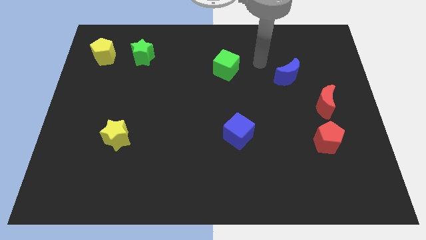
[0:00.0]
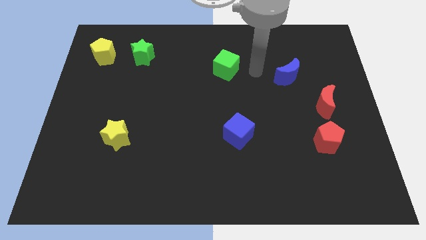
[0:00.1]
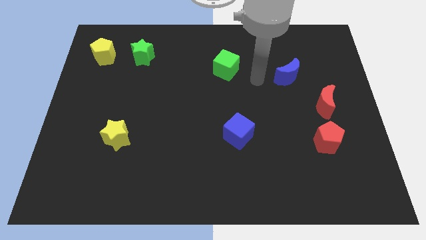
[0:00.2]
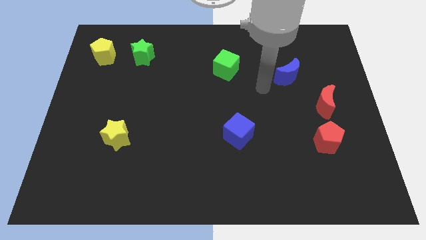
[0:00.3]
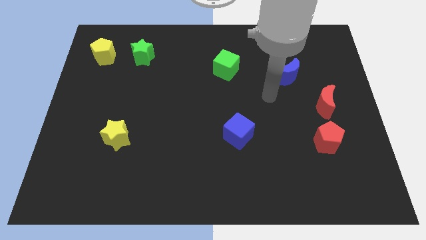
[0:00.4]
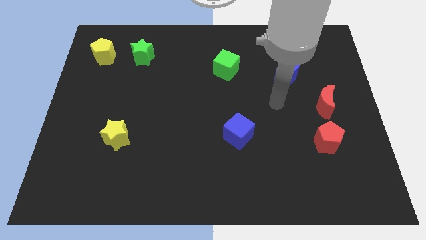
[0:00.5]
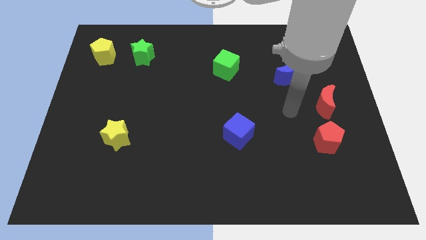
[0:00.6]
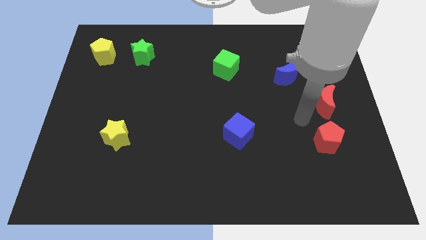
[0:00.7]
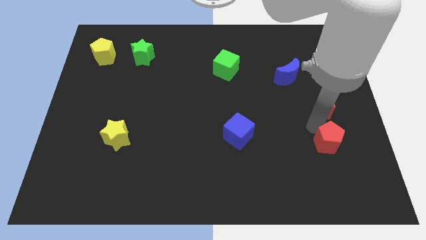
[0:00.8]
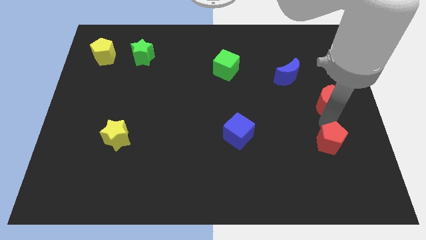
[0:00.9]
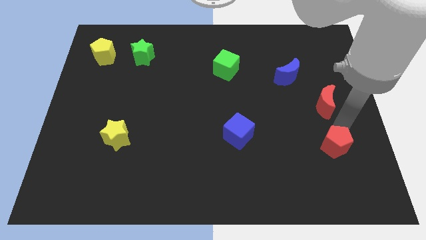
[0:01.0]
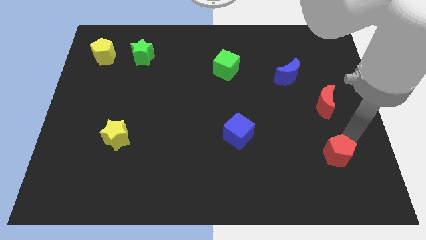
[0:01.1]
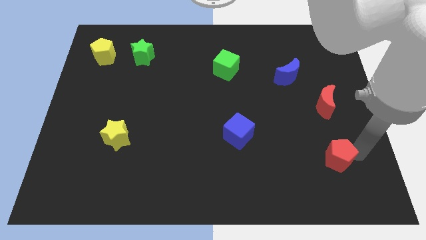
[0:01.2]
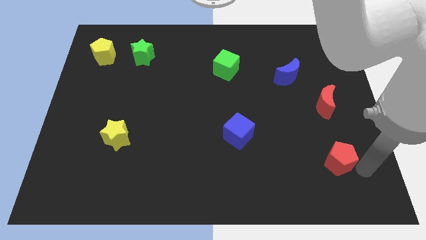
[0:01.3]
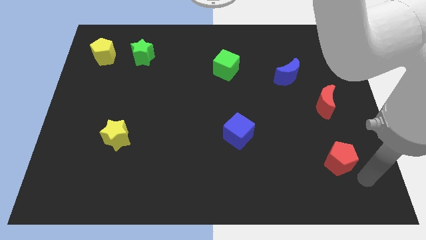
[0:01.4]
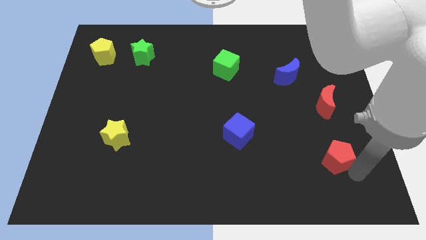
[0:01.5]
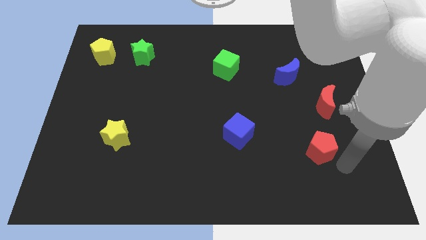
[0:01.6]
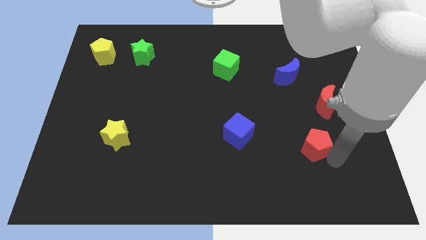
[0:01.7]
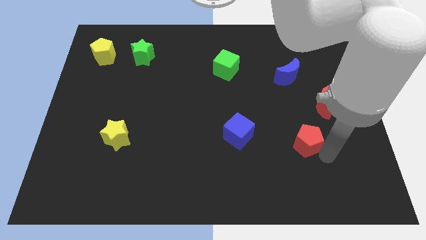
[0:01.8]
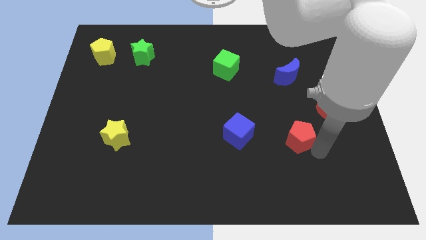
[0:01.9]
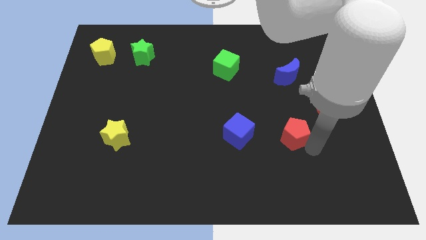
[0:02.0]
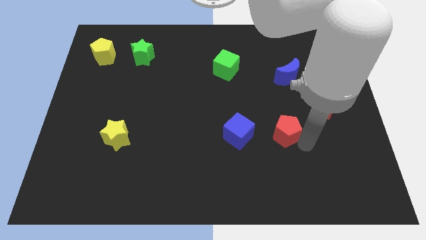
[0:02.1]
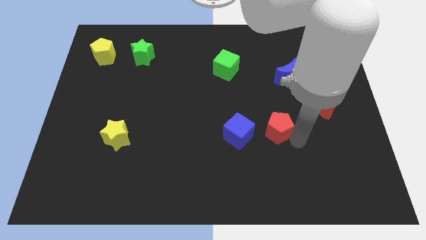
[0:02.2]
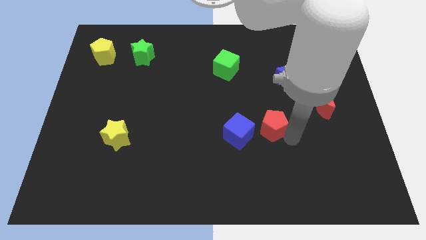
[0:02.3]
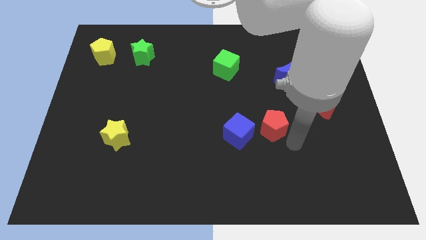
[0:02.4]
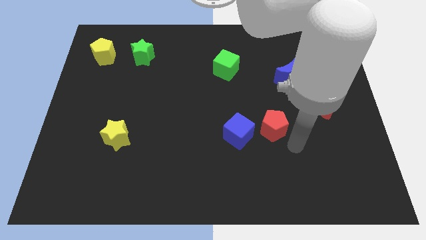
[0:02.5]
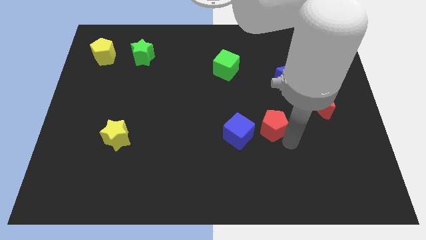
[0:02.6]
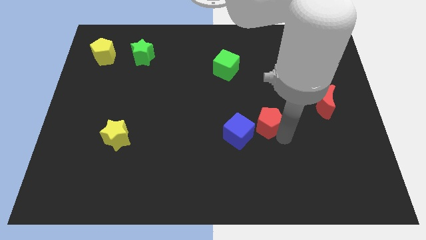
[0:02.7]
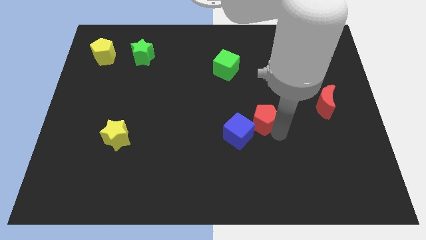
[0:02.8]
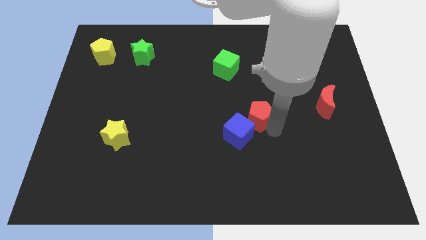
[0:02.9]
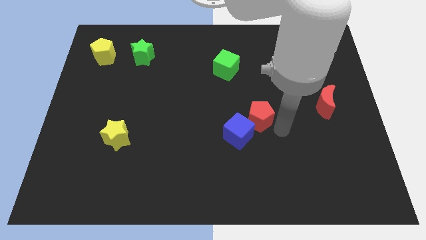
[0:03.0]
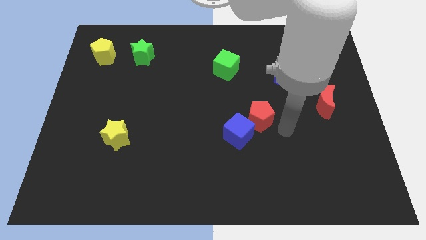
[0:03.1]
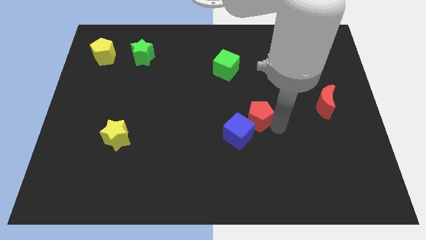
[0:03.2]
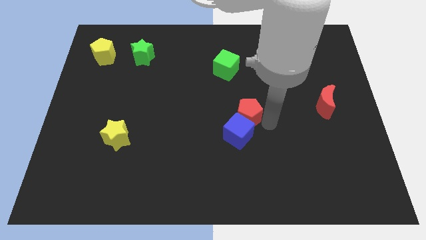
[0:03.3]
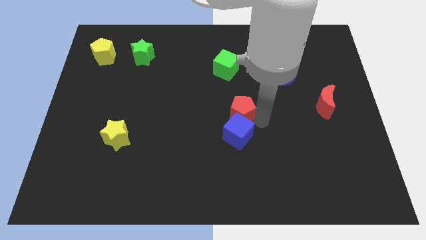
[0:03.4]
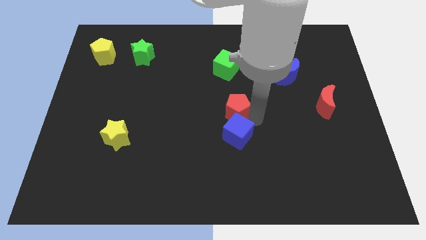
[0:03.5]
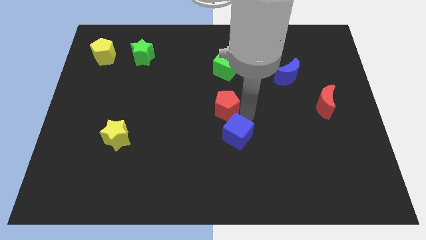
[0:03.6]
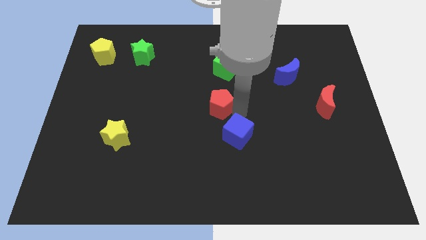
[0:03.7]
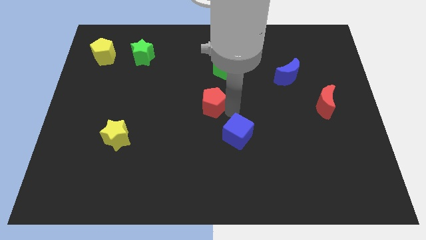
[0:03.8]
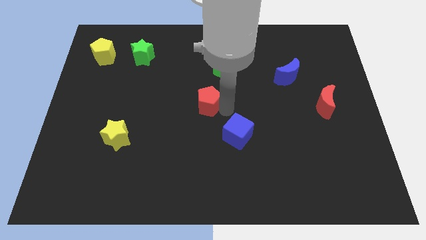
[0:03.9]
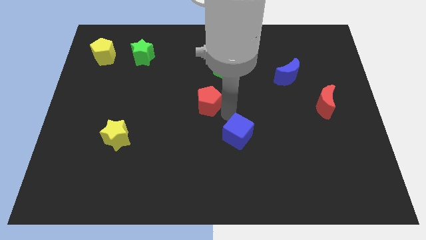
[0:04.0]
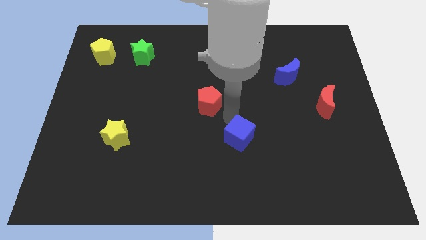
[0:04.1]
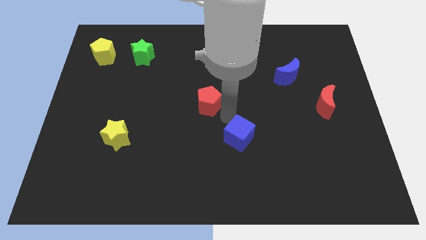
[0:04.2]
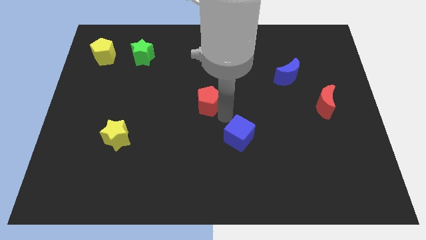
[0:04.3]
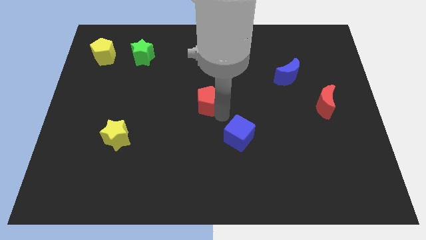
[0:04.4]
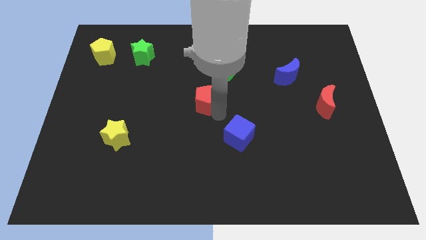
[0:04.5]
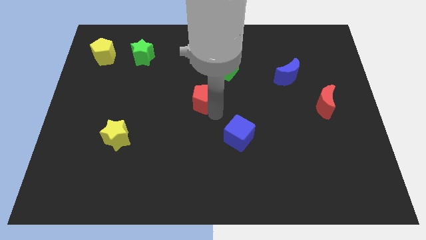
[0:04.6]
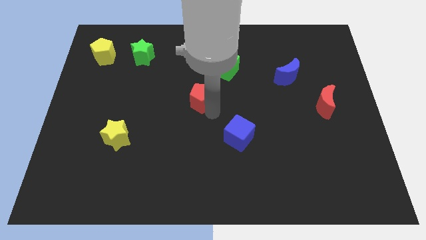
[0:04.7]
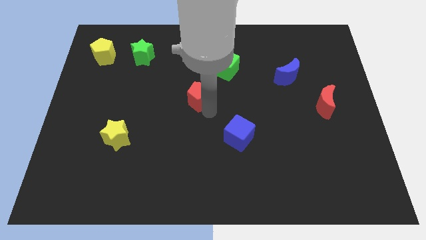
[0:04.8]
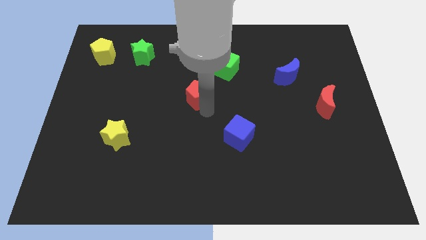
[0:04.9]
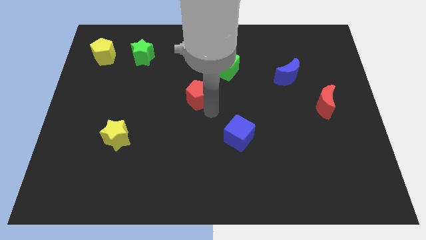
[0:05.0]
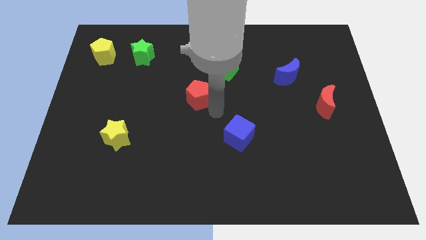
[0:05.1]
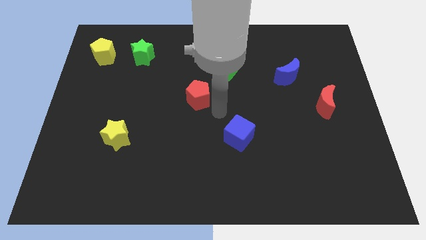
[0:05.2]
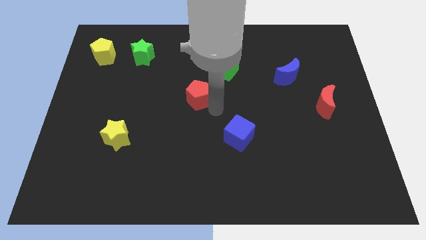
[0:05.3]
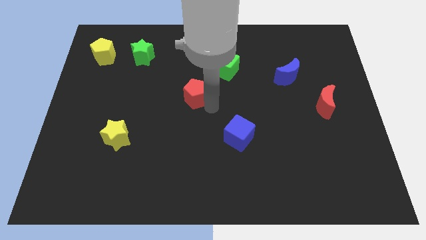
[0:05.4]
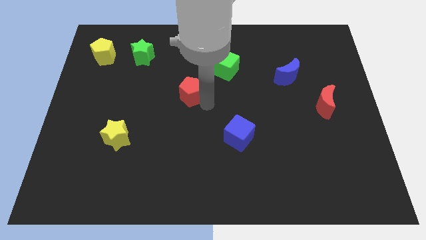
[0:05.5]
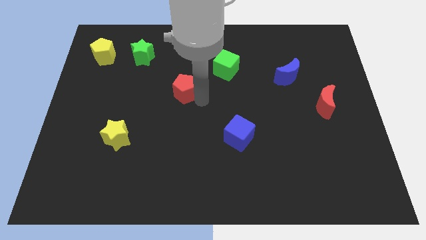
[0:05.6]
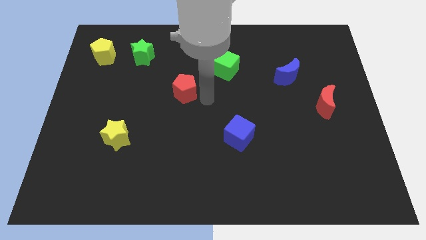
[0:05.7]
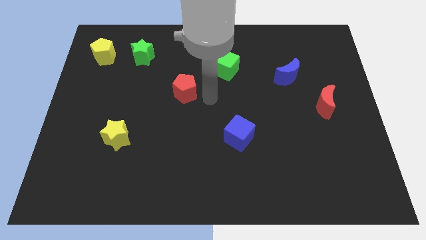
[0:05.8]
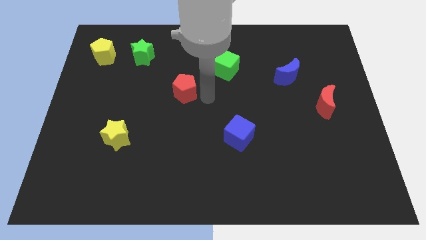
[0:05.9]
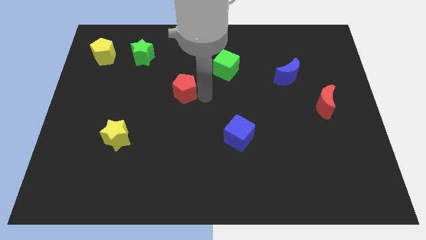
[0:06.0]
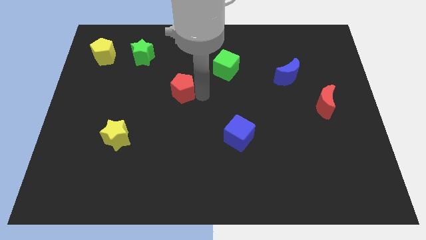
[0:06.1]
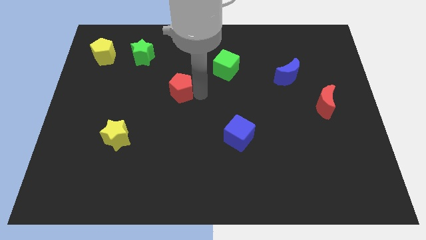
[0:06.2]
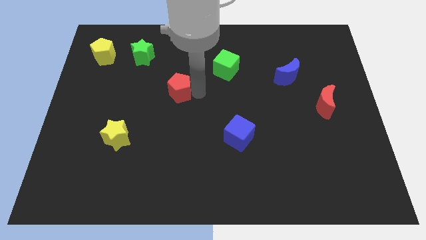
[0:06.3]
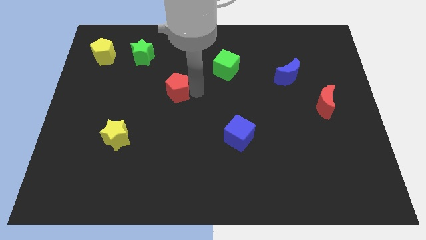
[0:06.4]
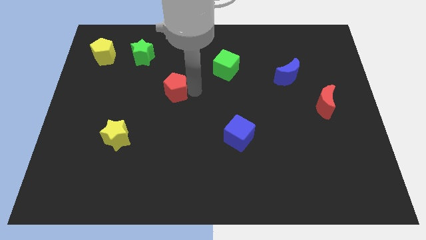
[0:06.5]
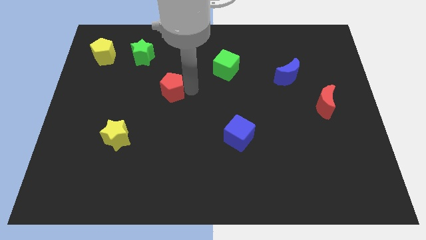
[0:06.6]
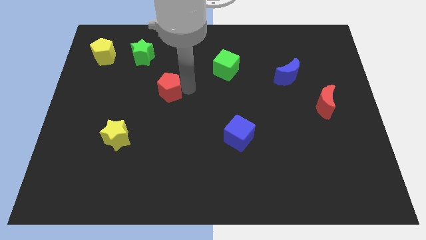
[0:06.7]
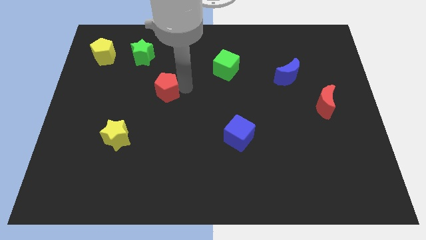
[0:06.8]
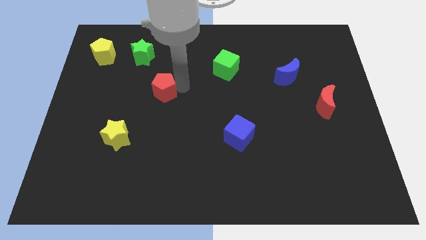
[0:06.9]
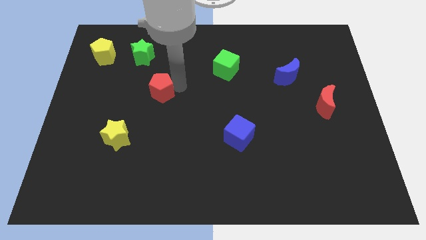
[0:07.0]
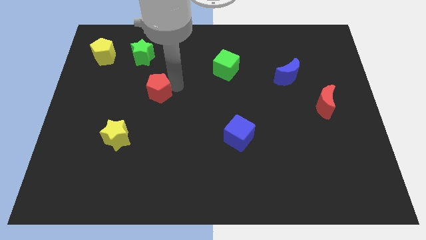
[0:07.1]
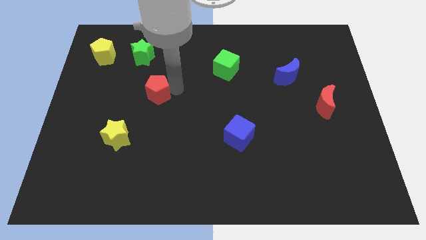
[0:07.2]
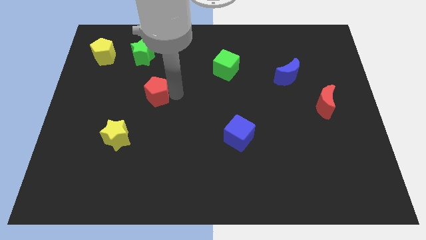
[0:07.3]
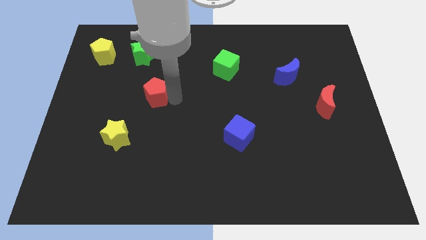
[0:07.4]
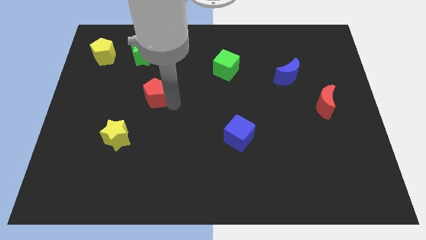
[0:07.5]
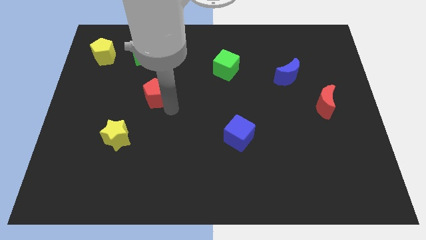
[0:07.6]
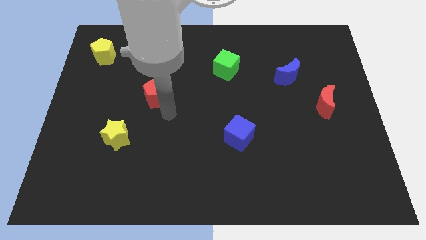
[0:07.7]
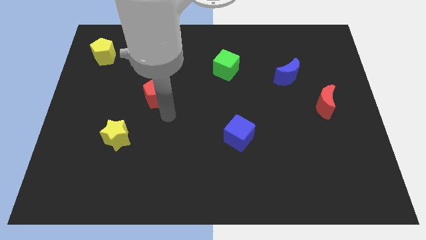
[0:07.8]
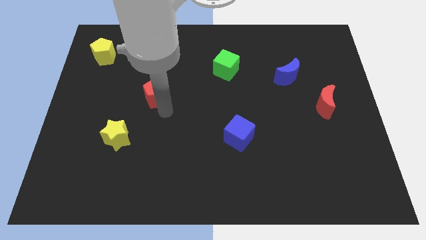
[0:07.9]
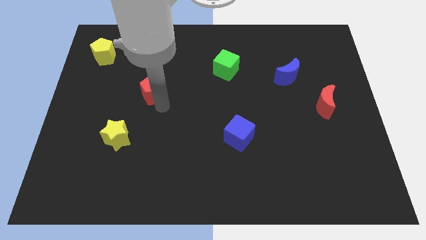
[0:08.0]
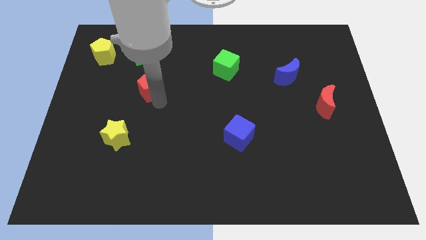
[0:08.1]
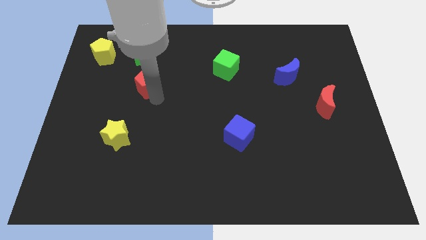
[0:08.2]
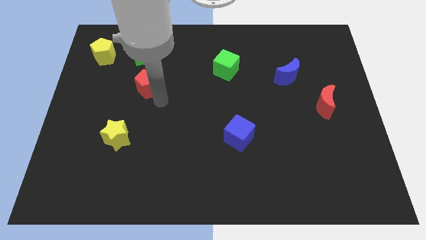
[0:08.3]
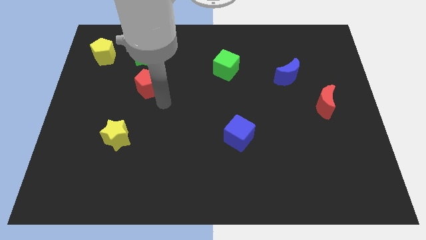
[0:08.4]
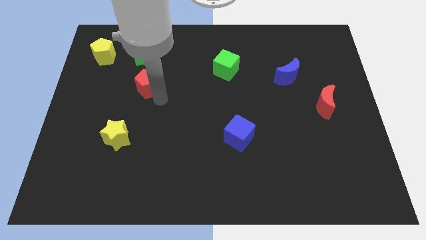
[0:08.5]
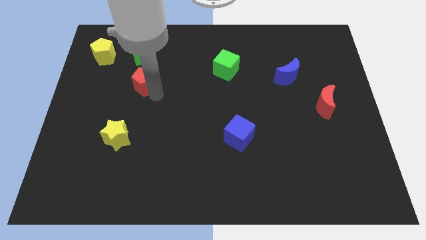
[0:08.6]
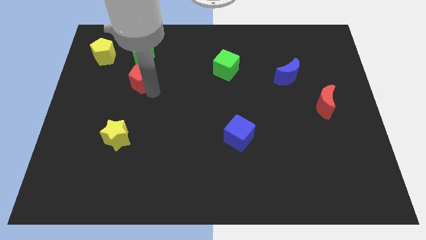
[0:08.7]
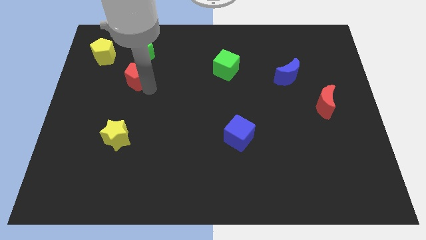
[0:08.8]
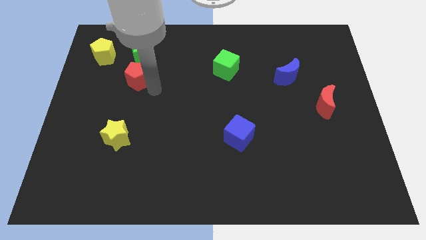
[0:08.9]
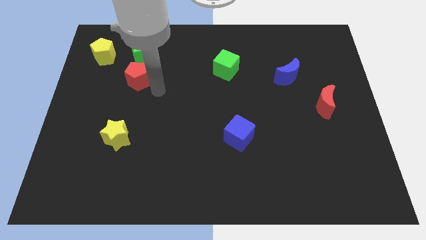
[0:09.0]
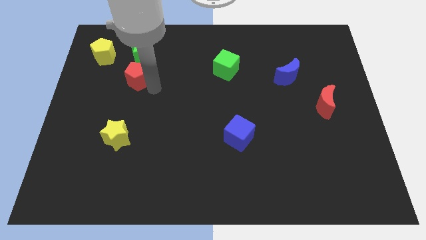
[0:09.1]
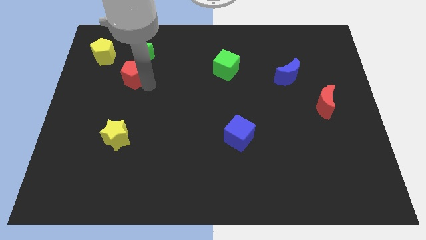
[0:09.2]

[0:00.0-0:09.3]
slide the red pentagon diagonally down and to the left of the green star
